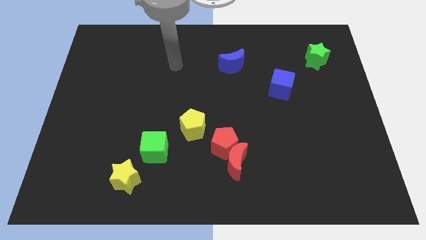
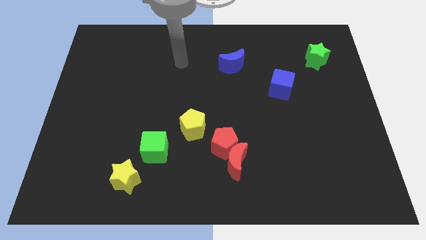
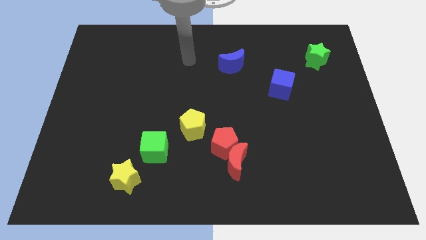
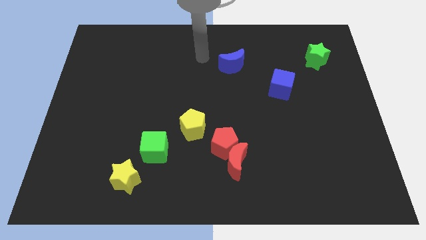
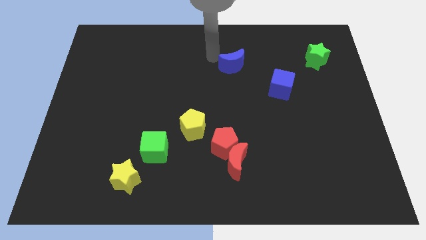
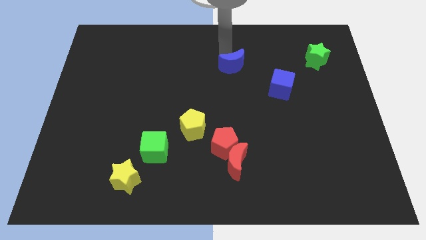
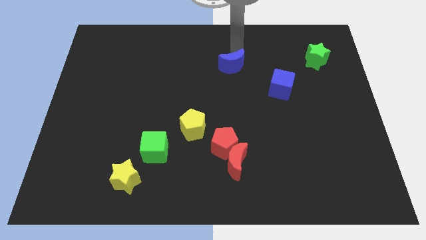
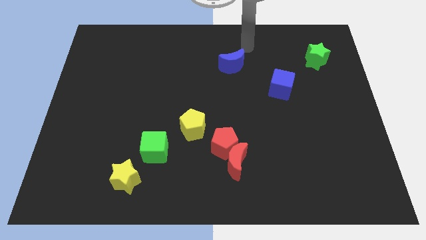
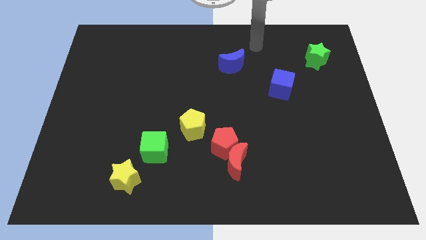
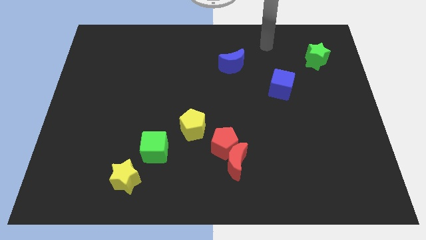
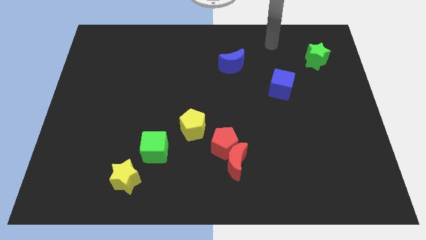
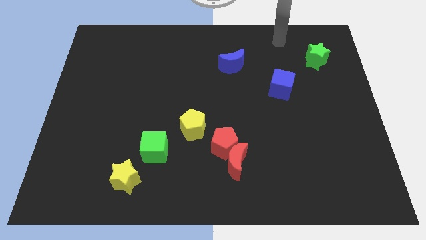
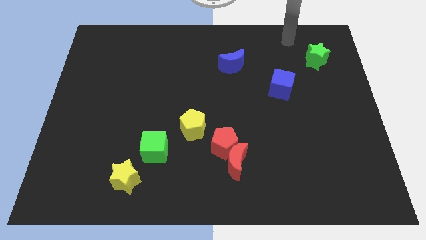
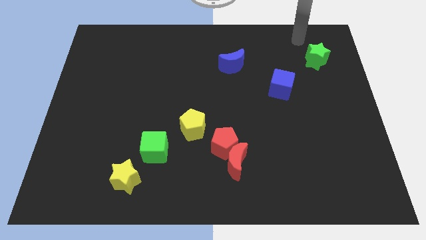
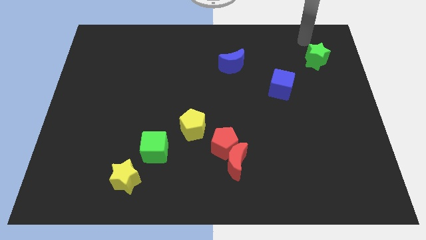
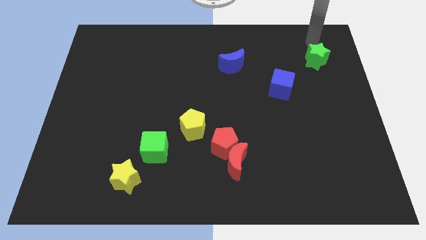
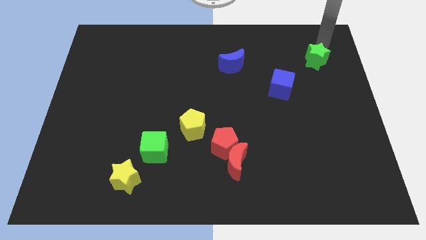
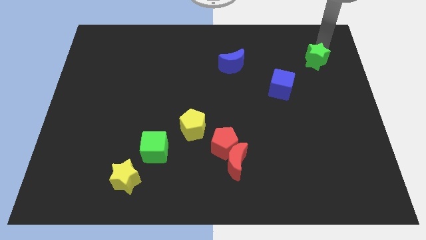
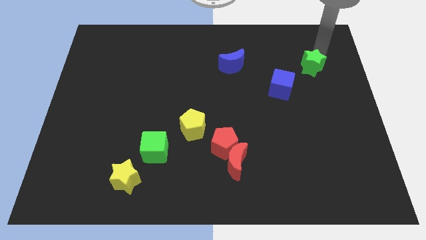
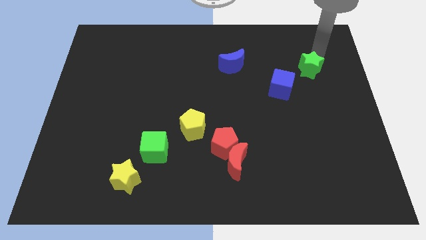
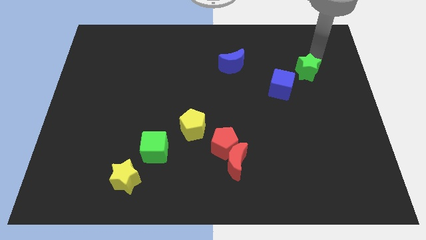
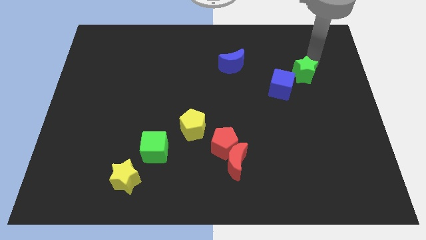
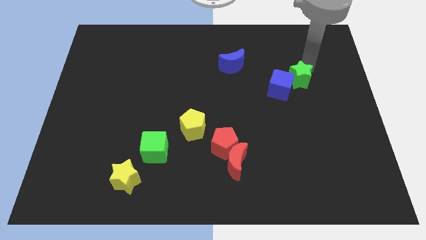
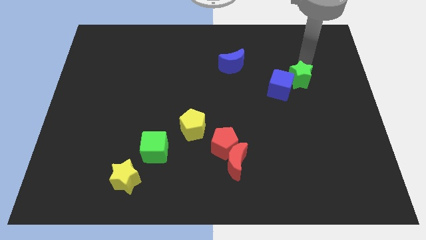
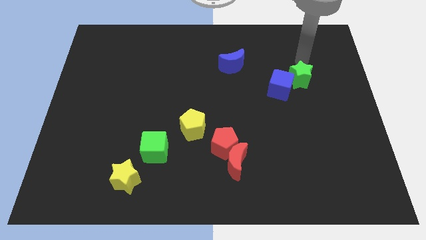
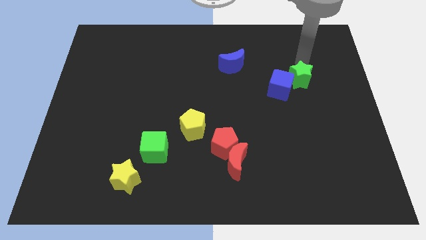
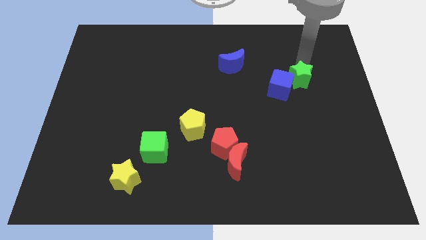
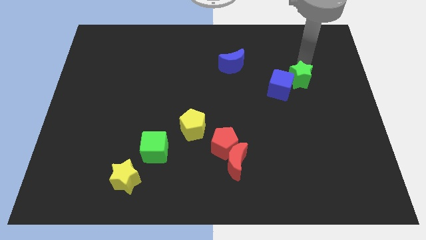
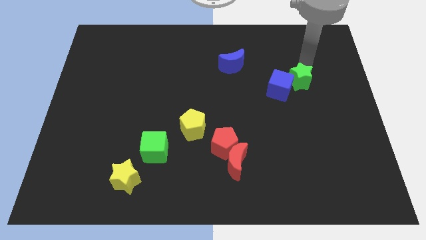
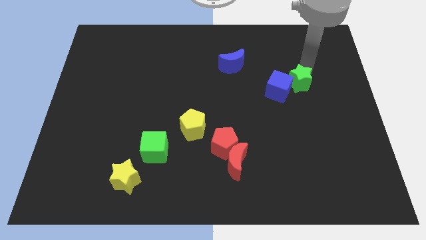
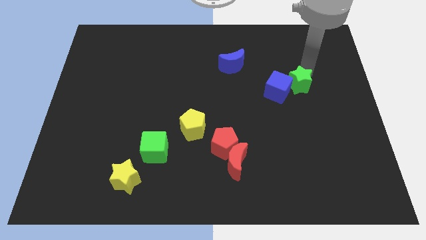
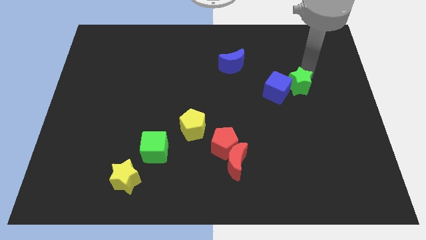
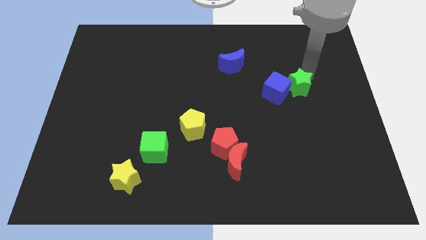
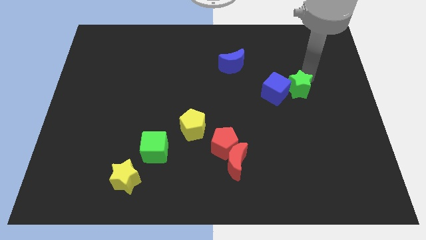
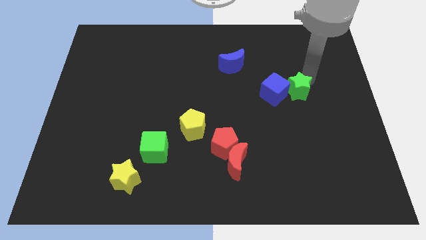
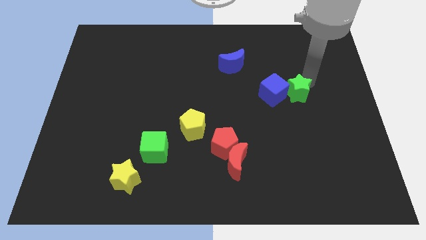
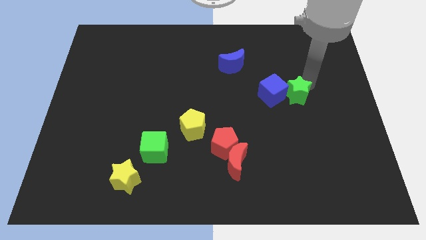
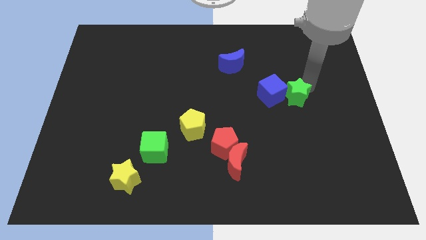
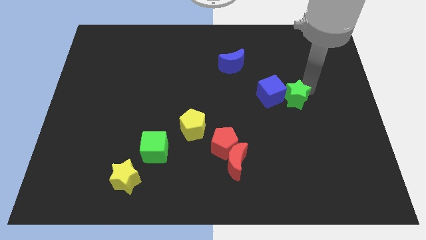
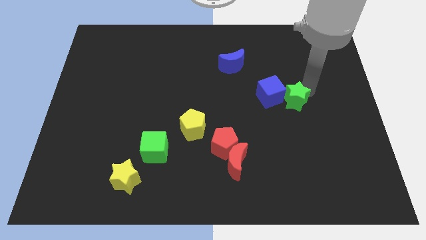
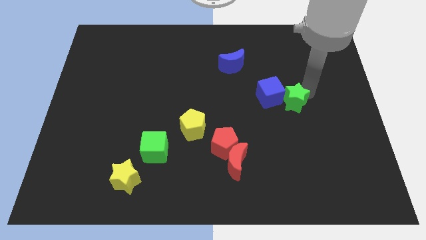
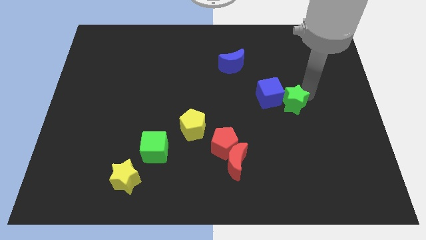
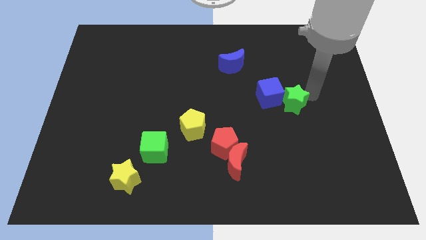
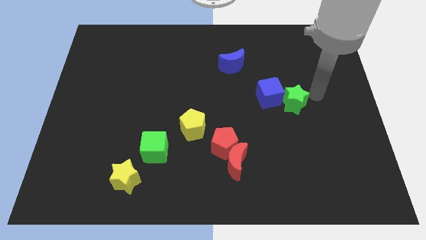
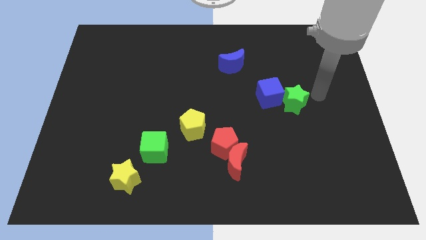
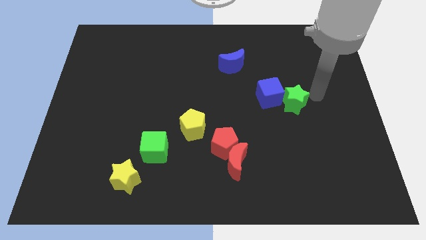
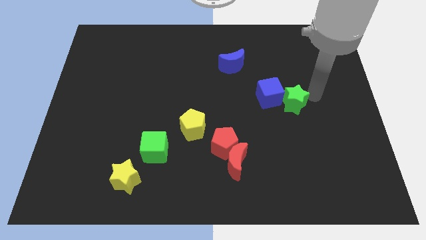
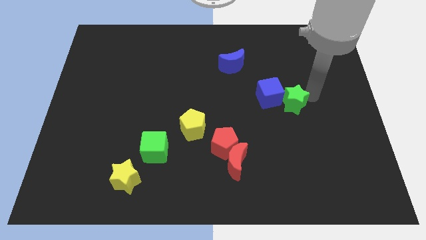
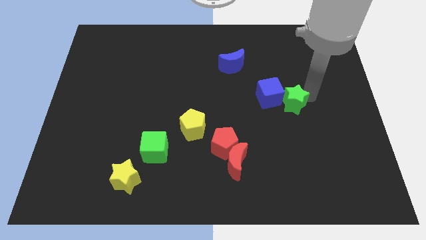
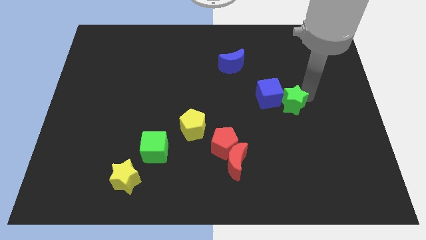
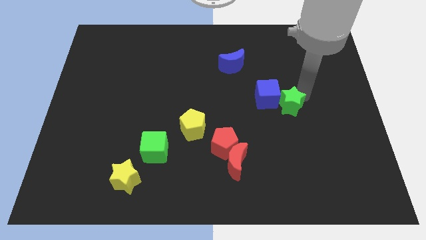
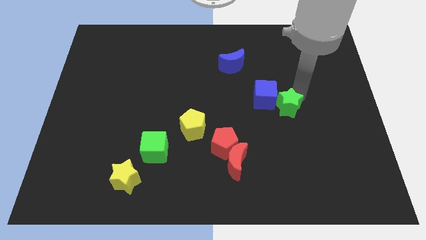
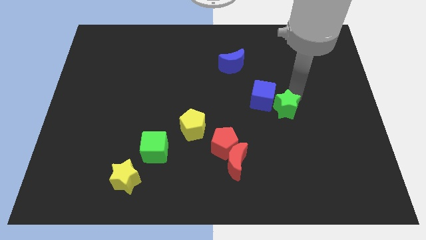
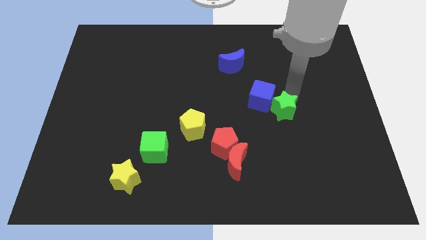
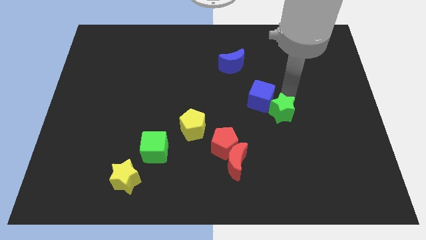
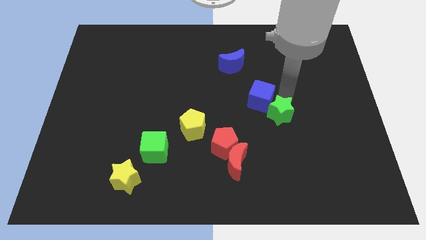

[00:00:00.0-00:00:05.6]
slide the green star downwards and then left

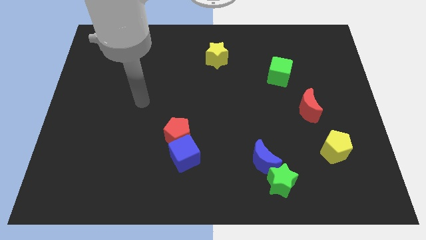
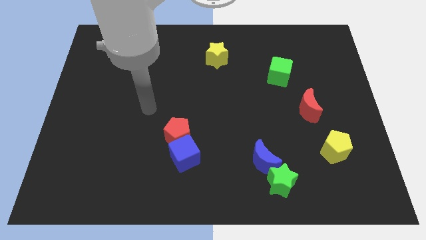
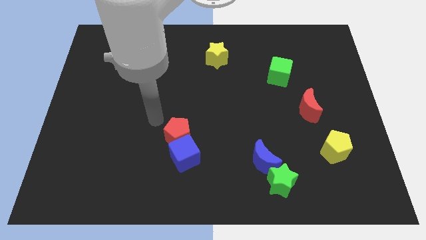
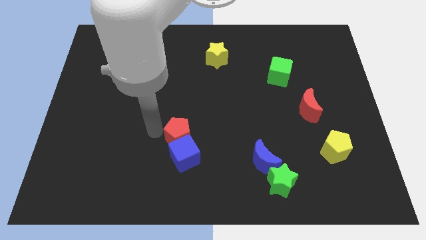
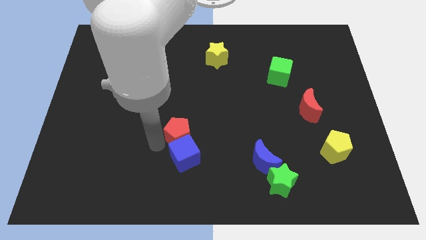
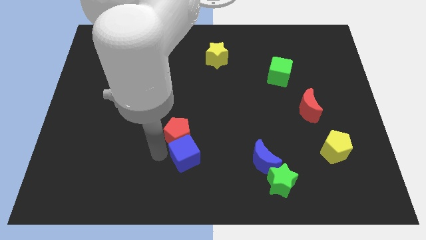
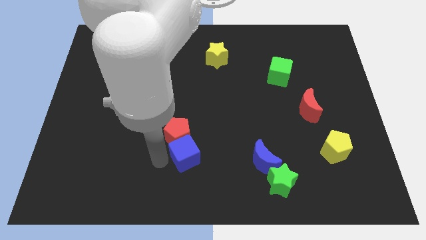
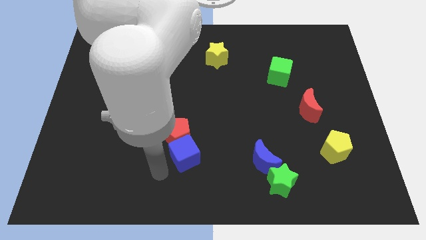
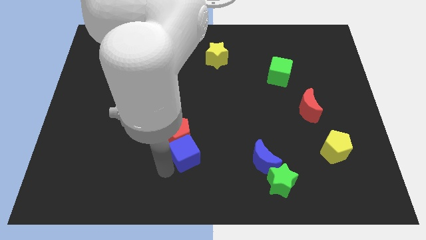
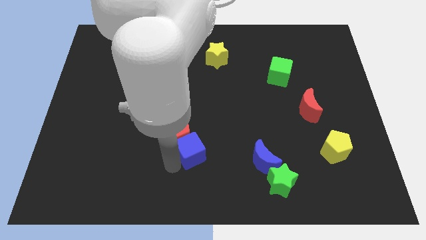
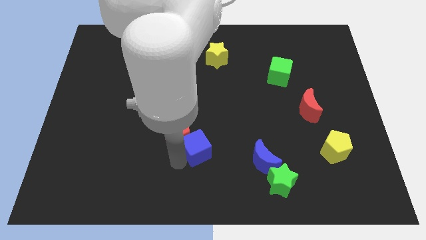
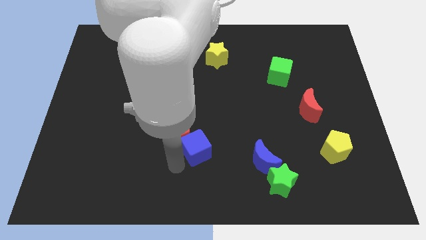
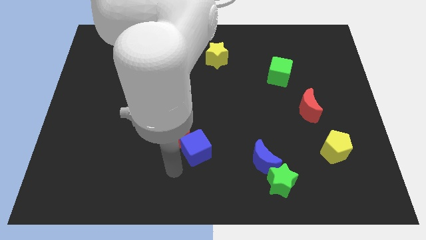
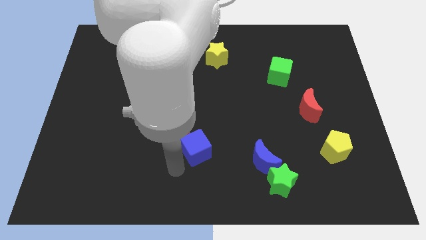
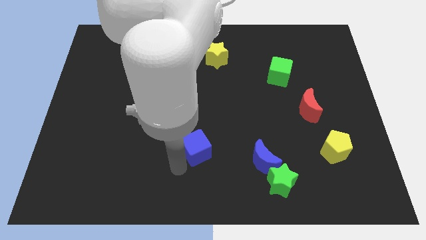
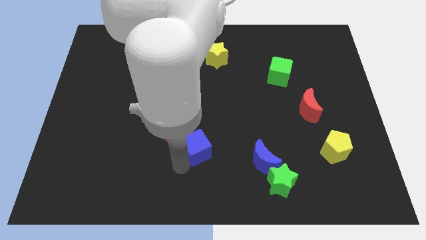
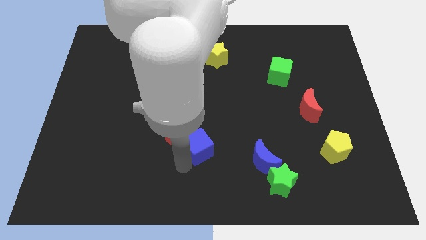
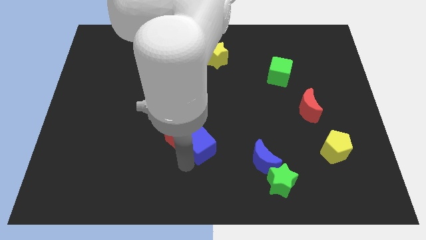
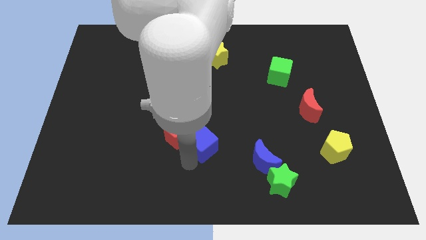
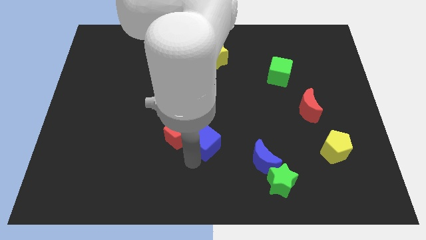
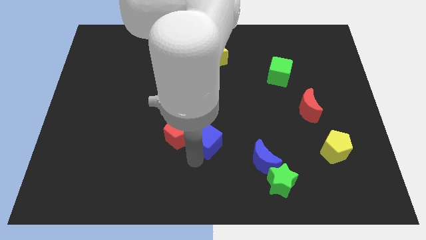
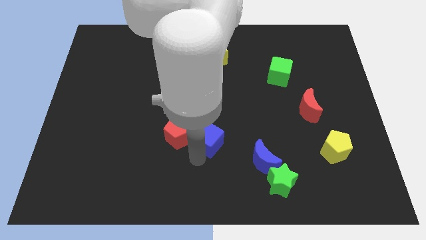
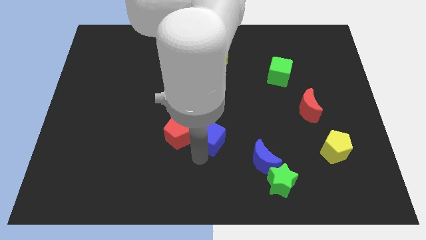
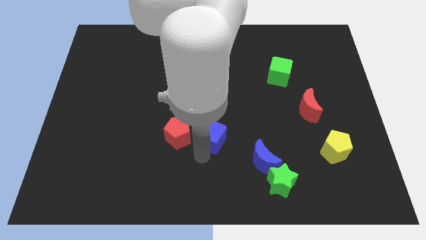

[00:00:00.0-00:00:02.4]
slightly move the blue cube upwards and then to the right
